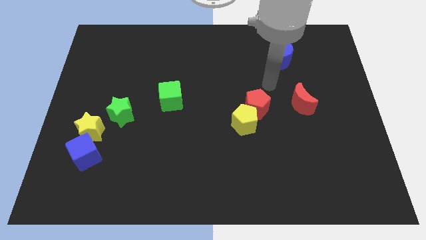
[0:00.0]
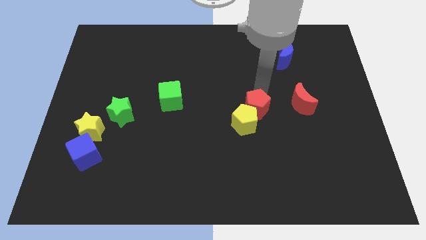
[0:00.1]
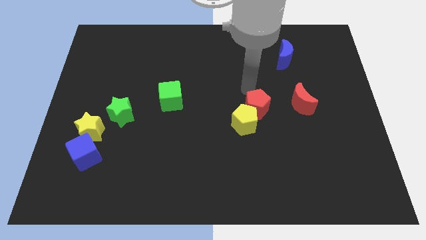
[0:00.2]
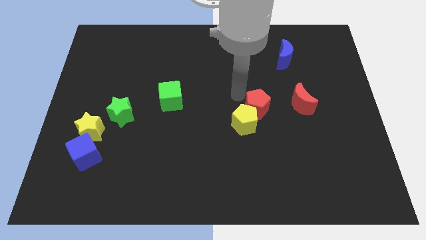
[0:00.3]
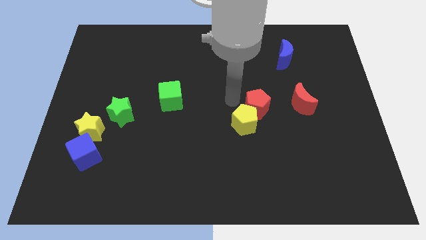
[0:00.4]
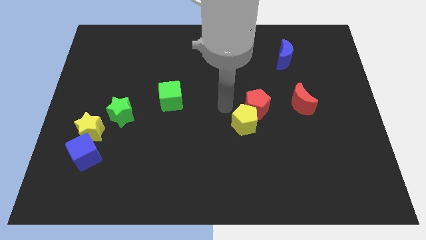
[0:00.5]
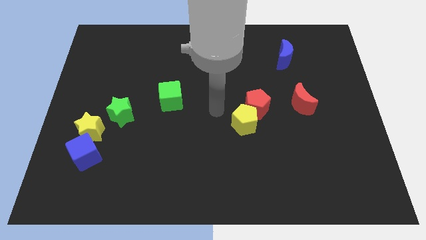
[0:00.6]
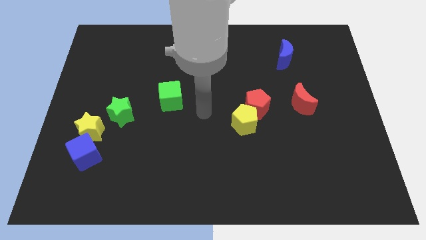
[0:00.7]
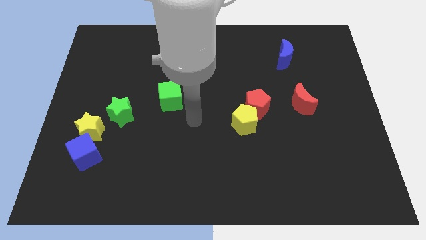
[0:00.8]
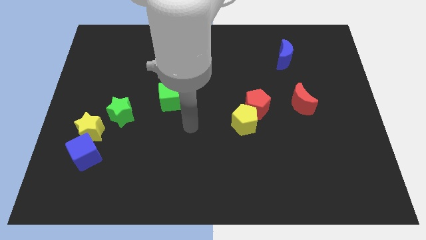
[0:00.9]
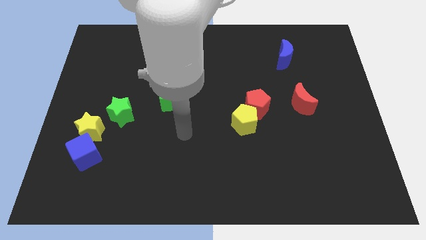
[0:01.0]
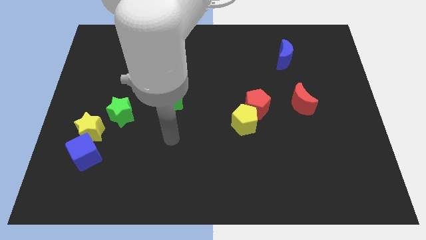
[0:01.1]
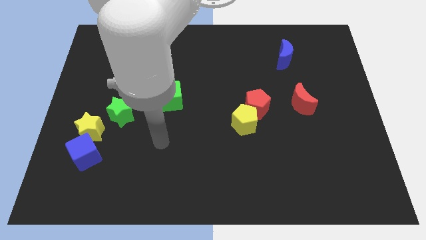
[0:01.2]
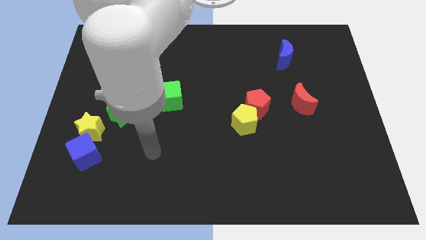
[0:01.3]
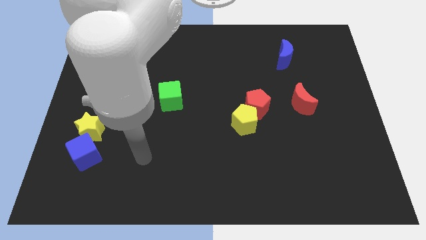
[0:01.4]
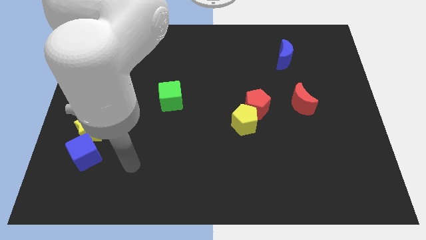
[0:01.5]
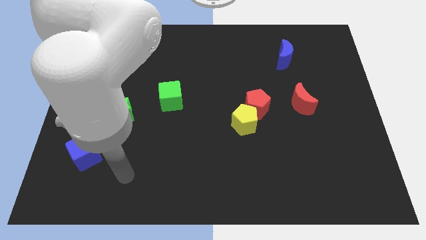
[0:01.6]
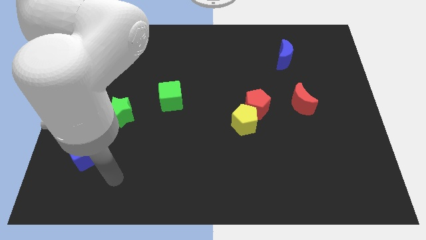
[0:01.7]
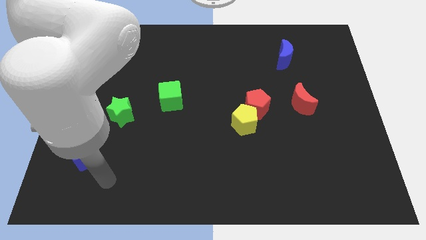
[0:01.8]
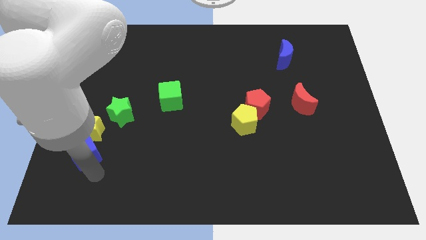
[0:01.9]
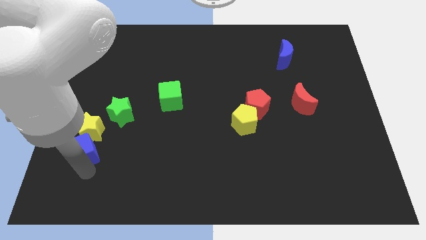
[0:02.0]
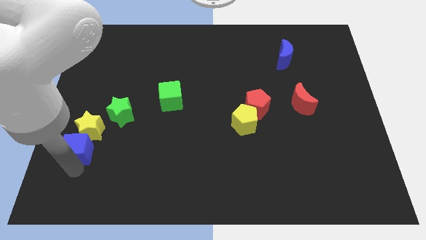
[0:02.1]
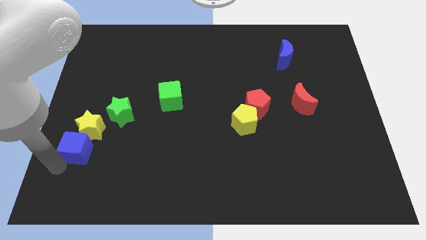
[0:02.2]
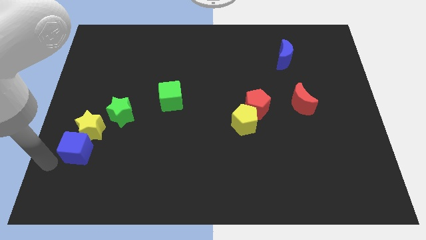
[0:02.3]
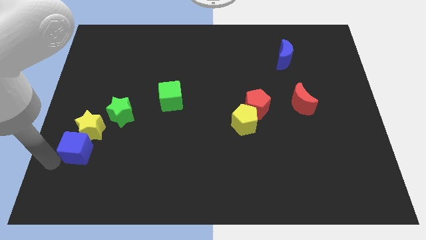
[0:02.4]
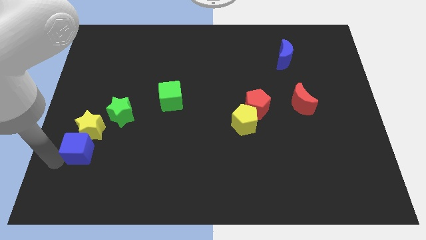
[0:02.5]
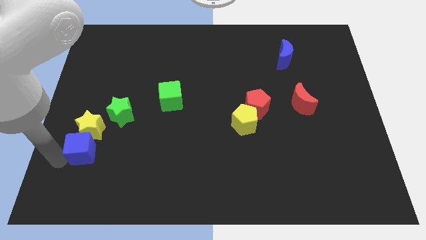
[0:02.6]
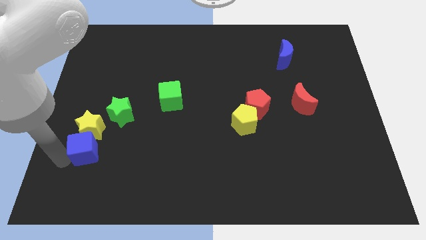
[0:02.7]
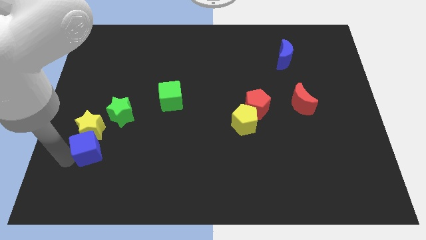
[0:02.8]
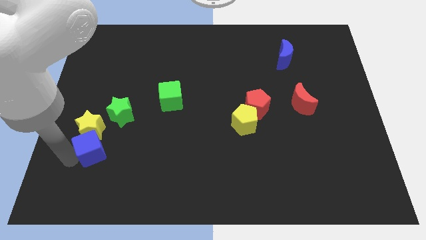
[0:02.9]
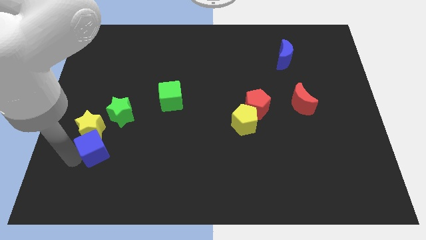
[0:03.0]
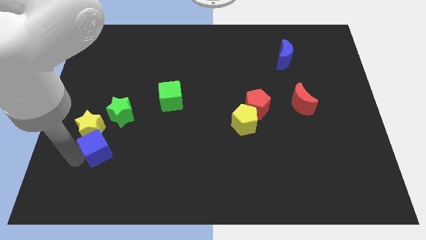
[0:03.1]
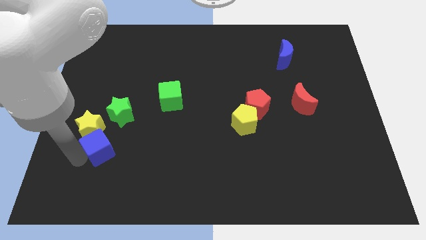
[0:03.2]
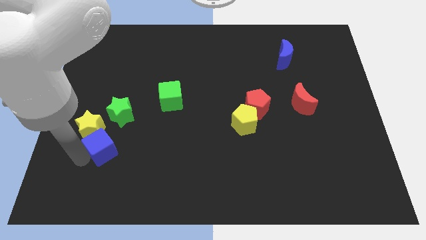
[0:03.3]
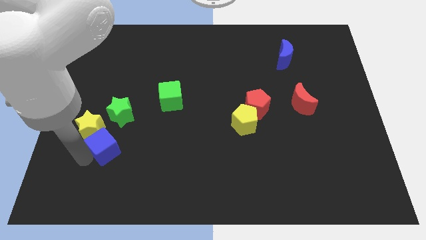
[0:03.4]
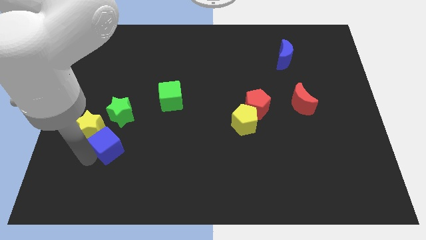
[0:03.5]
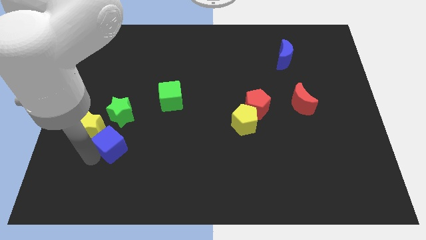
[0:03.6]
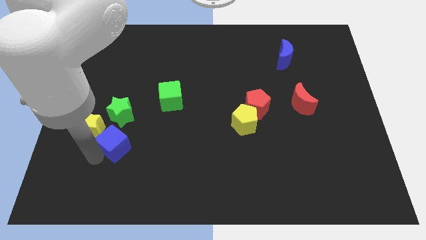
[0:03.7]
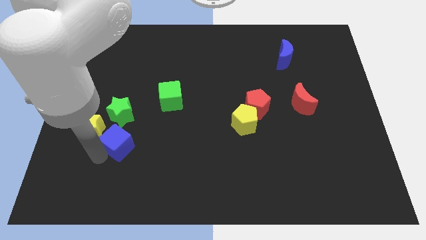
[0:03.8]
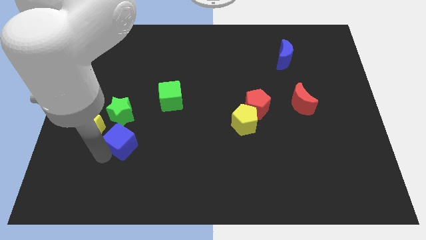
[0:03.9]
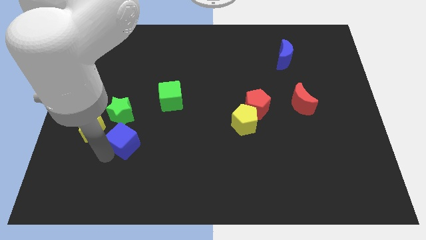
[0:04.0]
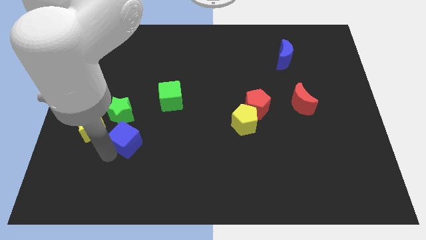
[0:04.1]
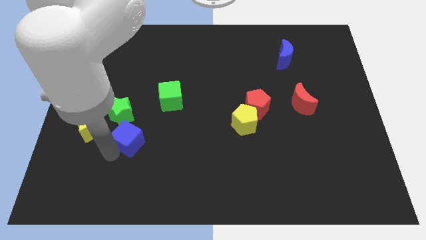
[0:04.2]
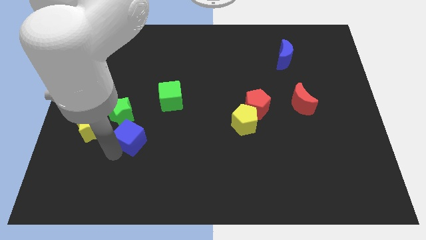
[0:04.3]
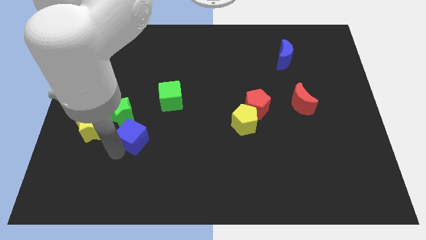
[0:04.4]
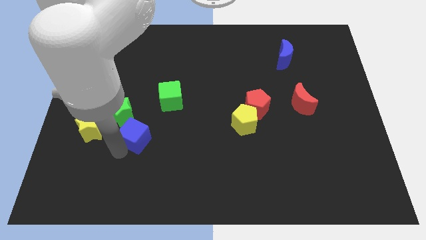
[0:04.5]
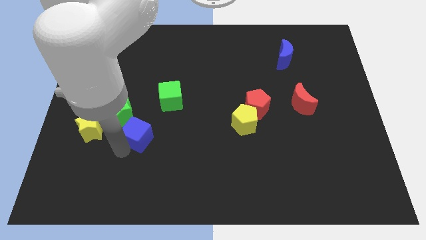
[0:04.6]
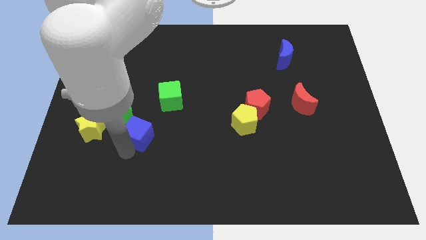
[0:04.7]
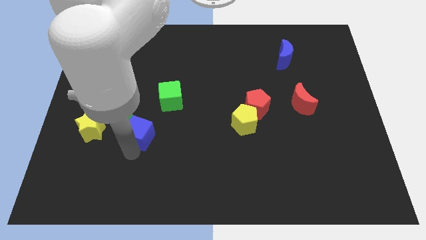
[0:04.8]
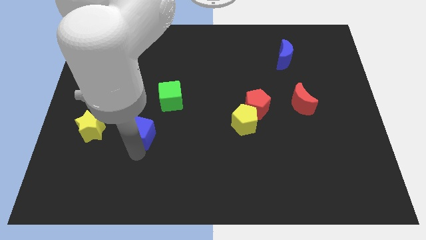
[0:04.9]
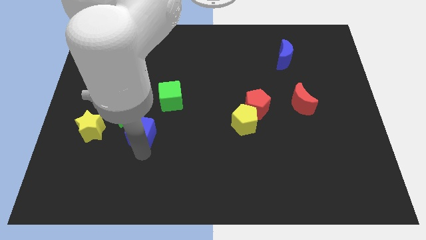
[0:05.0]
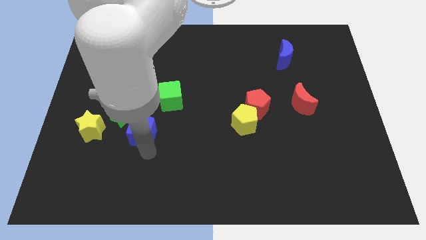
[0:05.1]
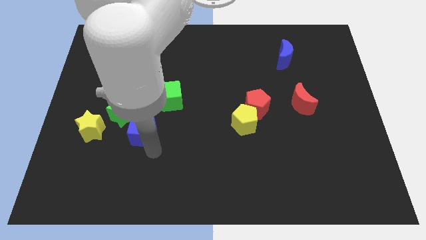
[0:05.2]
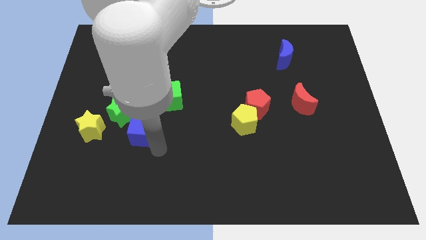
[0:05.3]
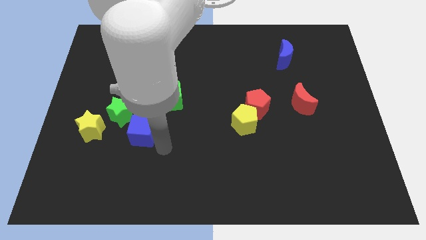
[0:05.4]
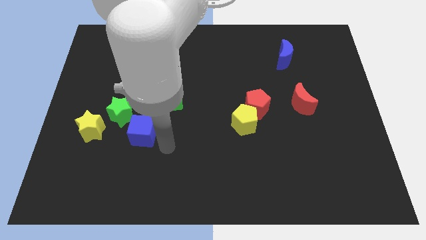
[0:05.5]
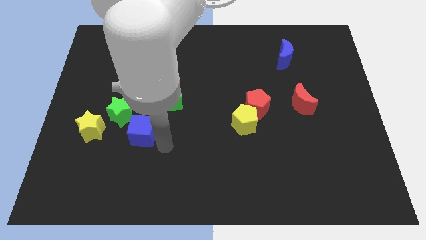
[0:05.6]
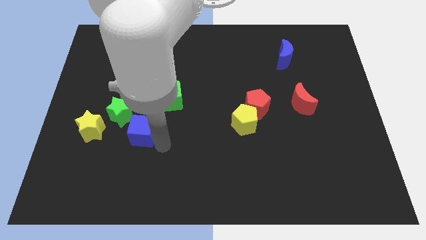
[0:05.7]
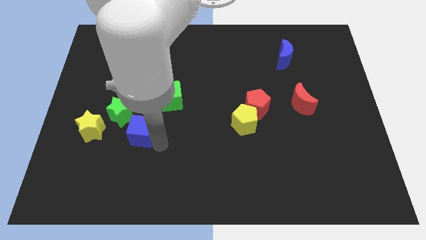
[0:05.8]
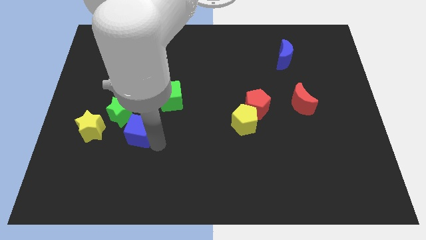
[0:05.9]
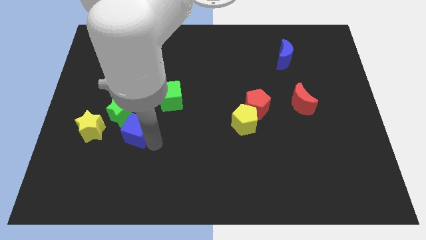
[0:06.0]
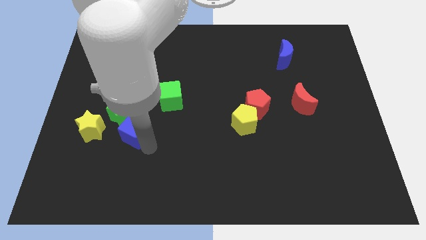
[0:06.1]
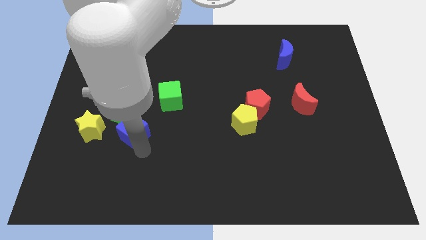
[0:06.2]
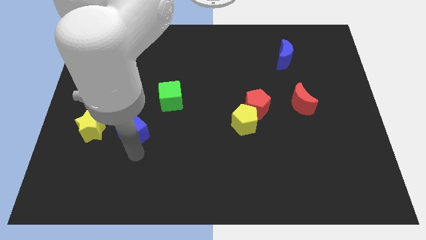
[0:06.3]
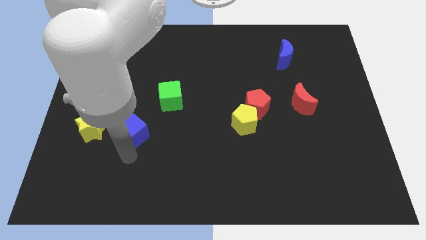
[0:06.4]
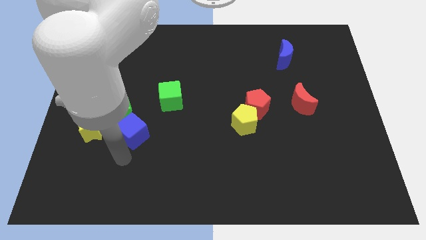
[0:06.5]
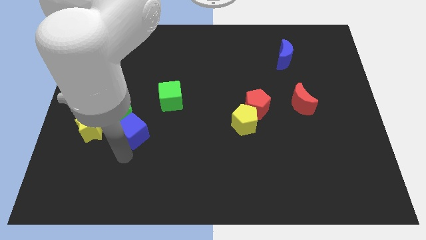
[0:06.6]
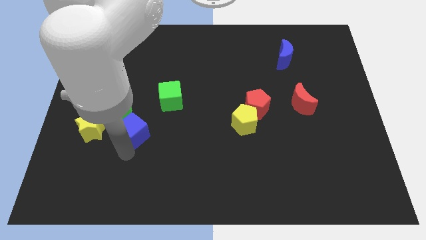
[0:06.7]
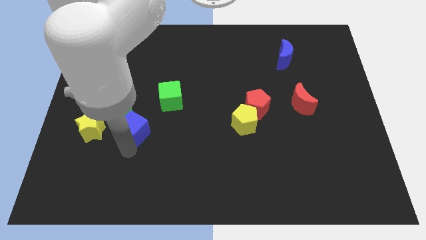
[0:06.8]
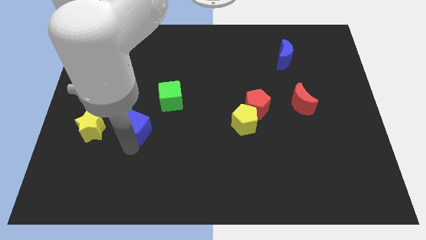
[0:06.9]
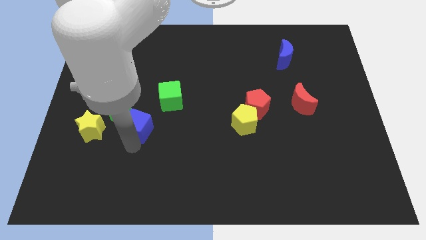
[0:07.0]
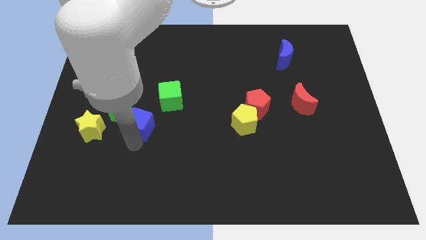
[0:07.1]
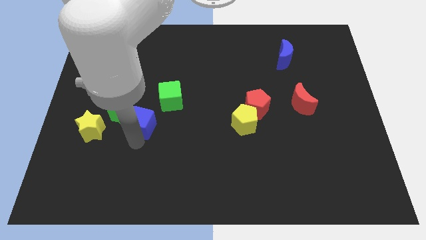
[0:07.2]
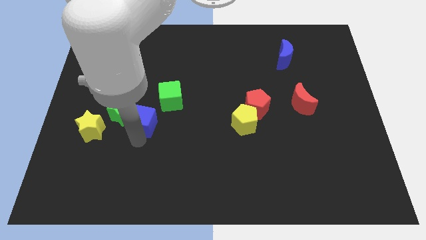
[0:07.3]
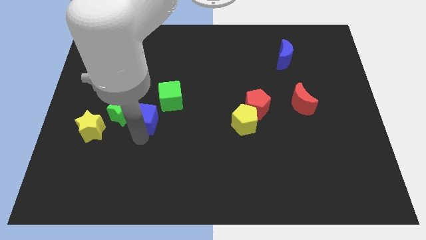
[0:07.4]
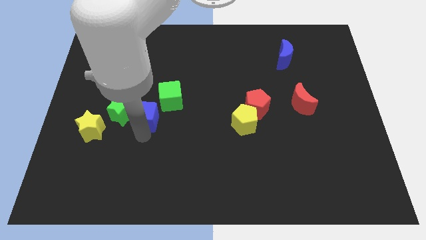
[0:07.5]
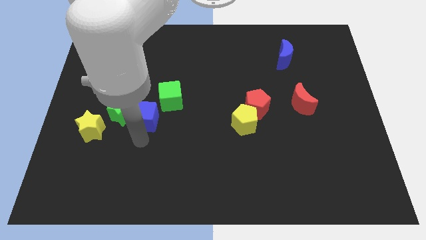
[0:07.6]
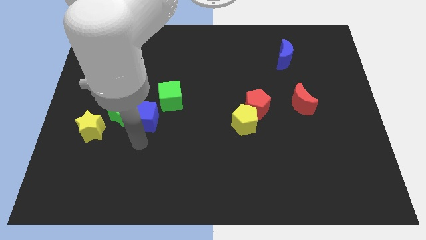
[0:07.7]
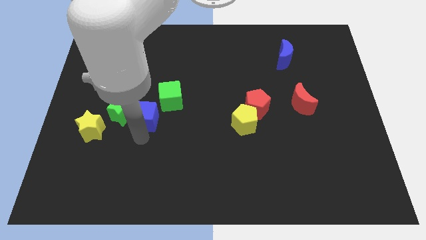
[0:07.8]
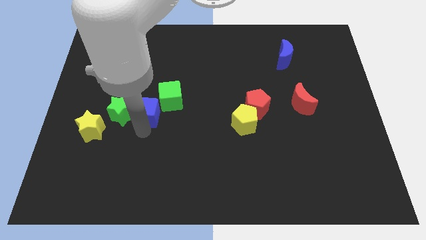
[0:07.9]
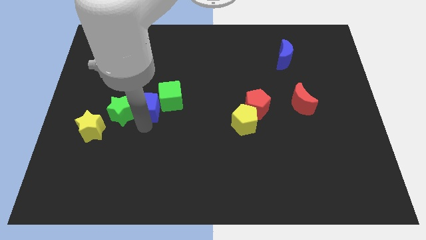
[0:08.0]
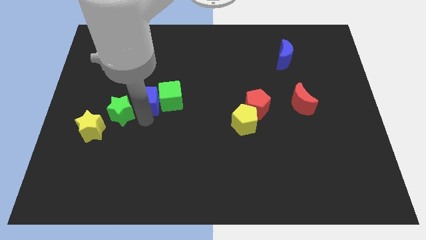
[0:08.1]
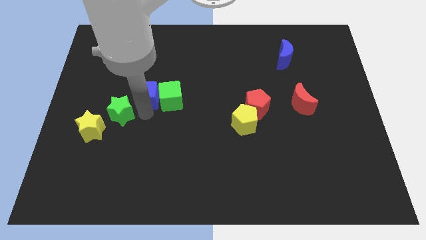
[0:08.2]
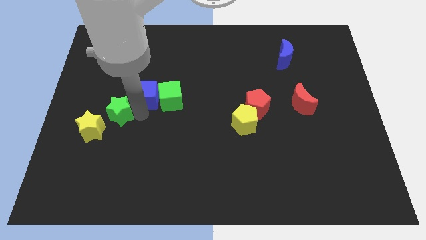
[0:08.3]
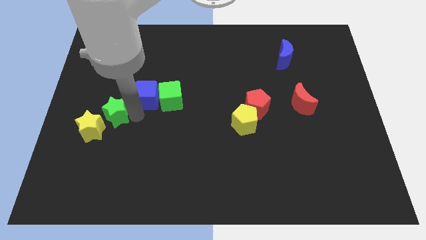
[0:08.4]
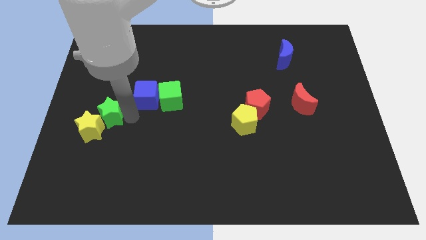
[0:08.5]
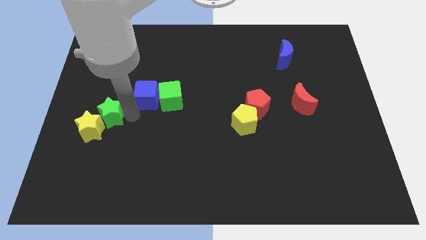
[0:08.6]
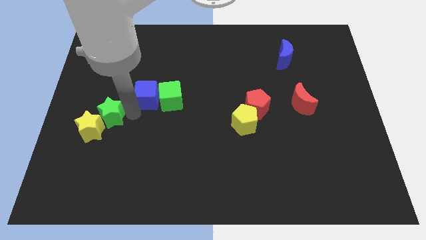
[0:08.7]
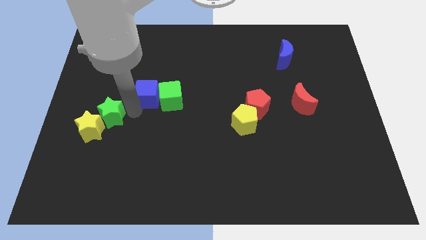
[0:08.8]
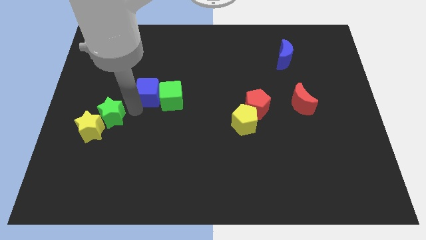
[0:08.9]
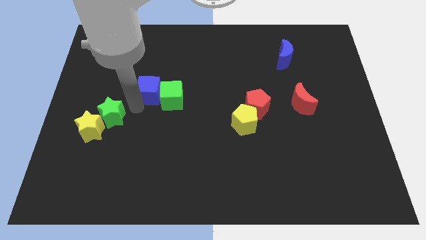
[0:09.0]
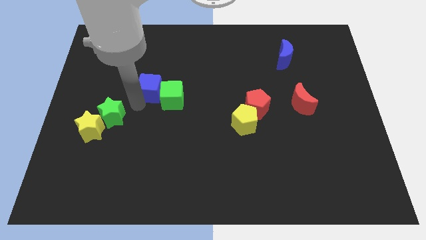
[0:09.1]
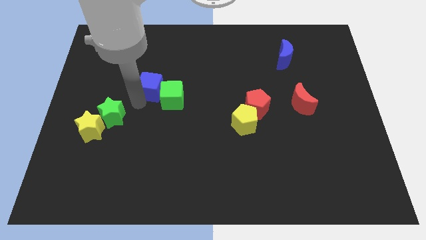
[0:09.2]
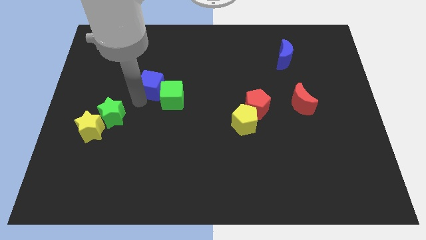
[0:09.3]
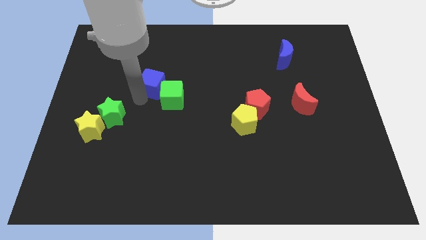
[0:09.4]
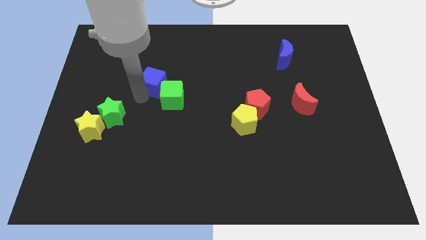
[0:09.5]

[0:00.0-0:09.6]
slide the blue cube to the top of the green cube
